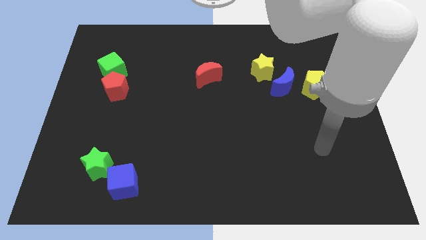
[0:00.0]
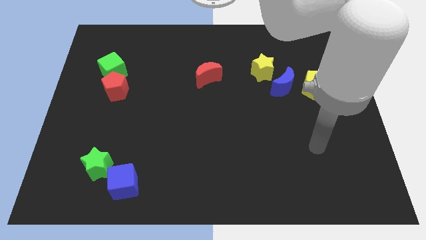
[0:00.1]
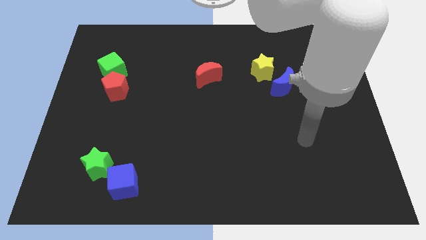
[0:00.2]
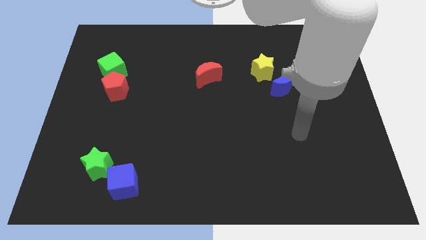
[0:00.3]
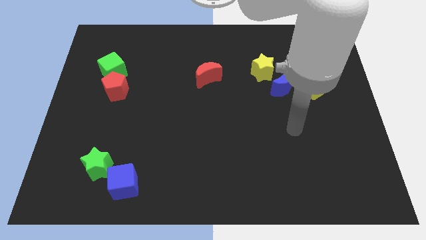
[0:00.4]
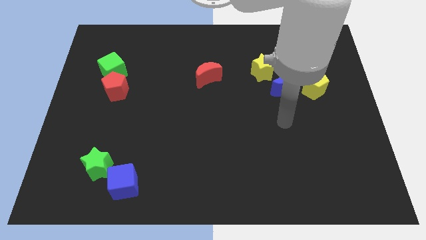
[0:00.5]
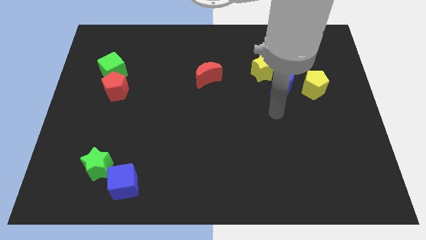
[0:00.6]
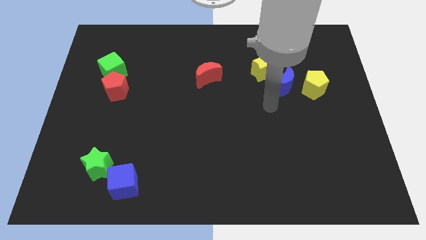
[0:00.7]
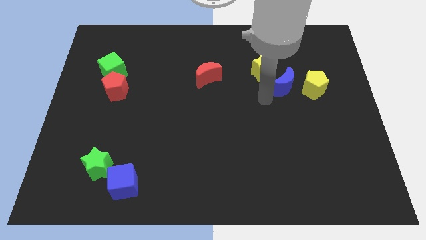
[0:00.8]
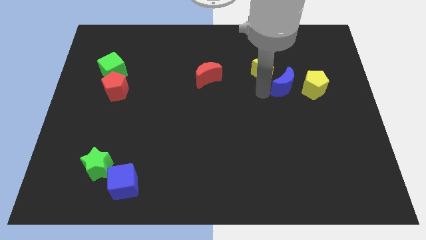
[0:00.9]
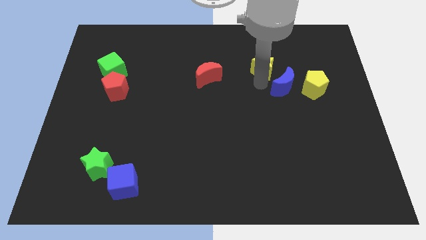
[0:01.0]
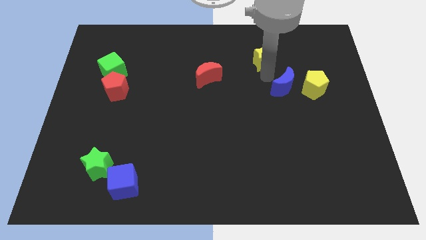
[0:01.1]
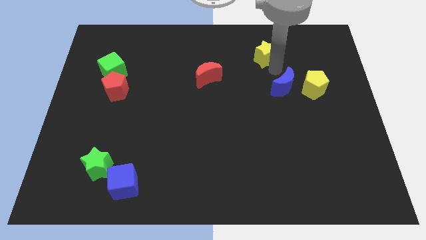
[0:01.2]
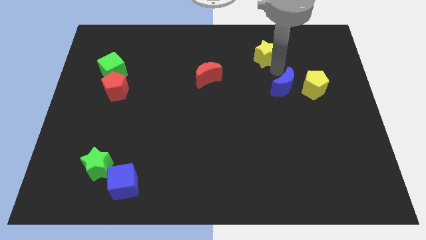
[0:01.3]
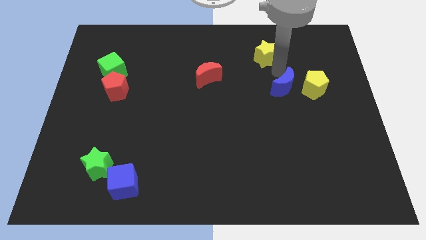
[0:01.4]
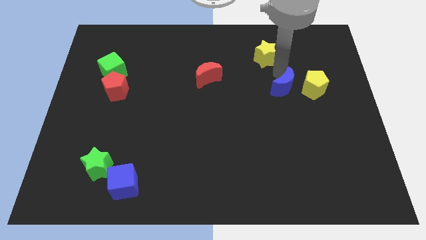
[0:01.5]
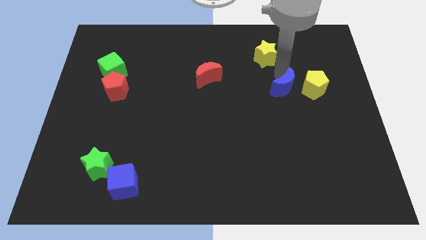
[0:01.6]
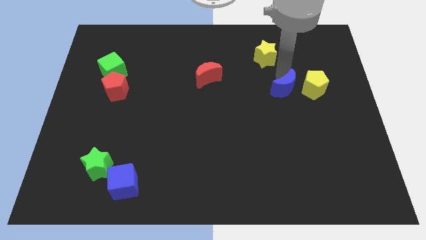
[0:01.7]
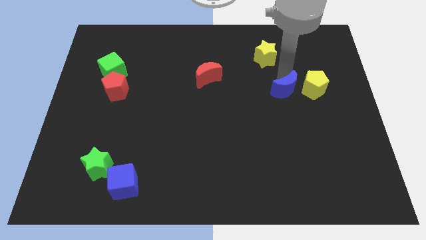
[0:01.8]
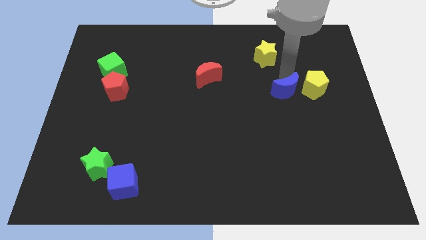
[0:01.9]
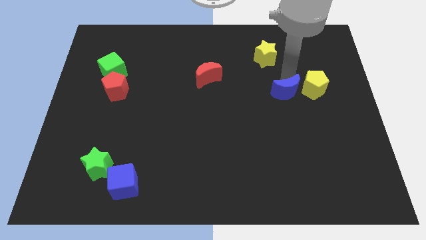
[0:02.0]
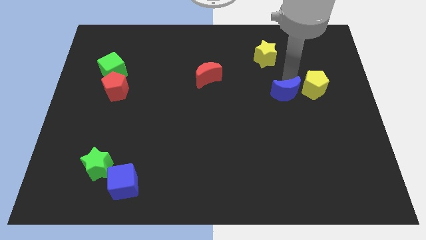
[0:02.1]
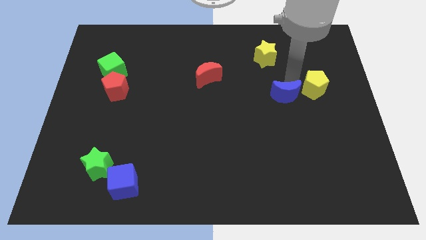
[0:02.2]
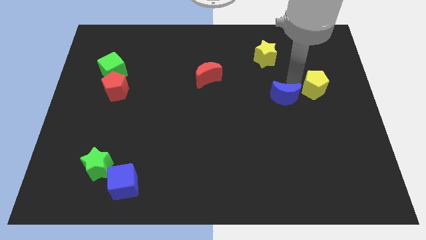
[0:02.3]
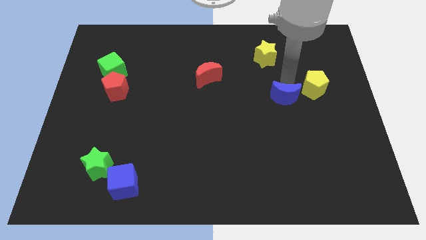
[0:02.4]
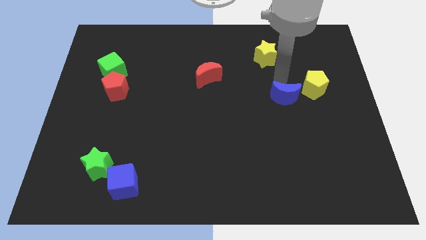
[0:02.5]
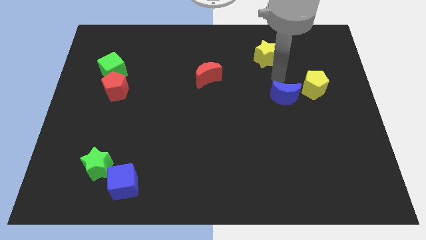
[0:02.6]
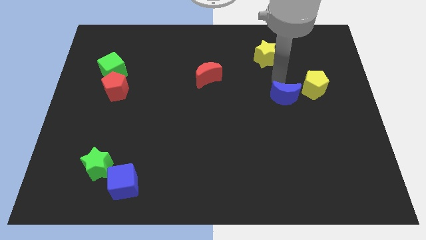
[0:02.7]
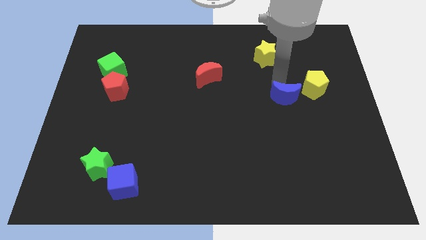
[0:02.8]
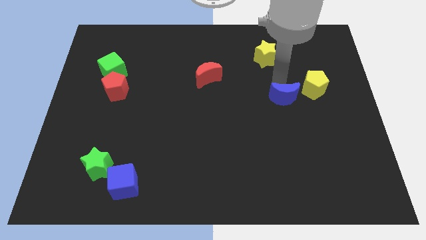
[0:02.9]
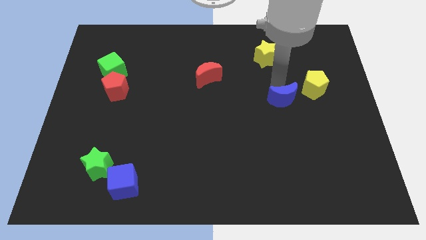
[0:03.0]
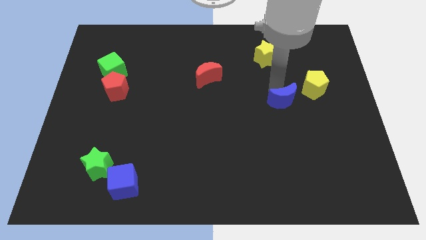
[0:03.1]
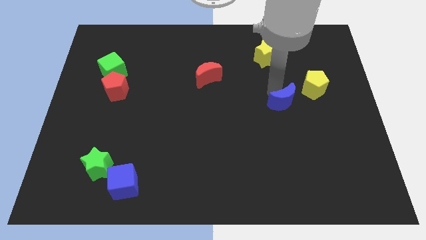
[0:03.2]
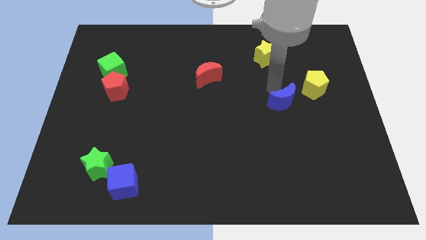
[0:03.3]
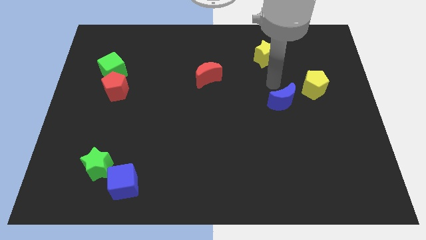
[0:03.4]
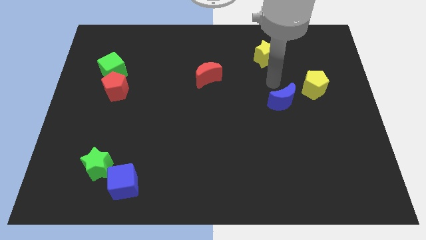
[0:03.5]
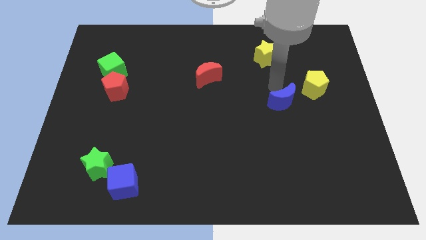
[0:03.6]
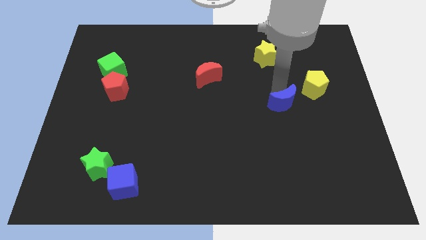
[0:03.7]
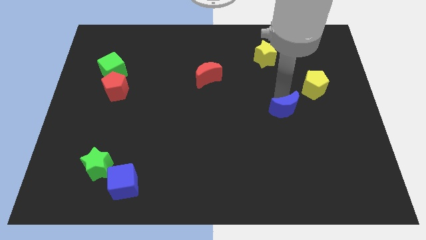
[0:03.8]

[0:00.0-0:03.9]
slightly move the blue moon downwards

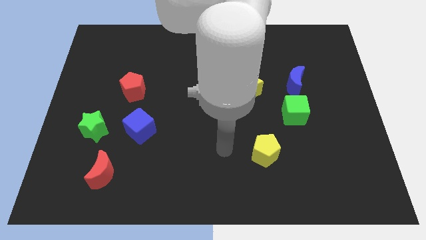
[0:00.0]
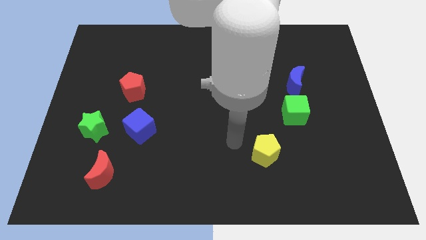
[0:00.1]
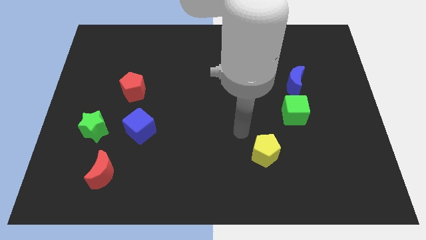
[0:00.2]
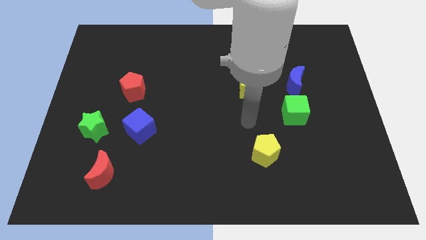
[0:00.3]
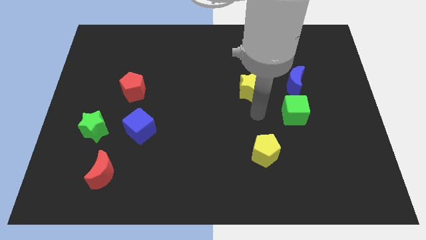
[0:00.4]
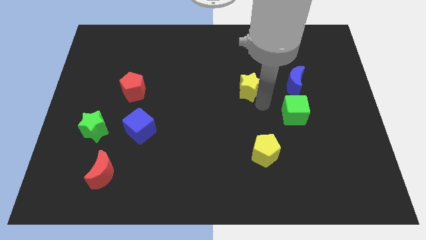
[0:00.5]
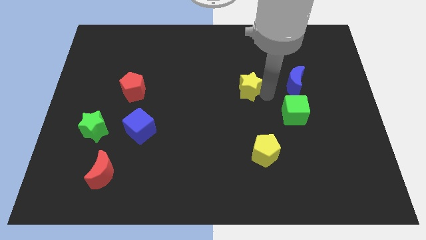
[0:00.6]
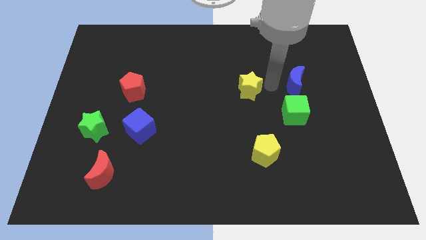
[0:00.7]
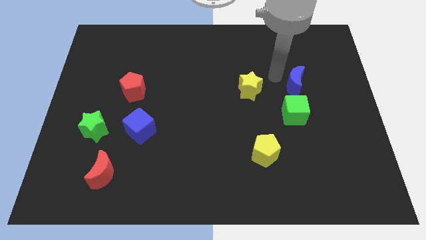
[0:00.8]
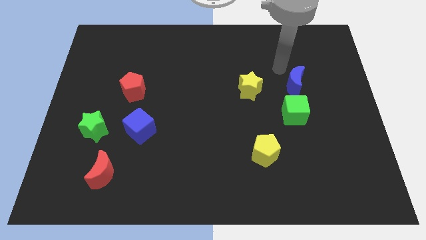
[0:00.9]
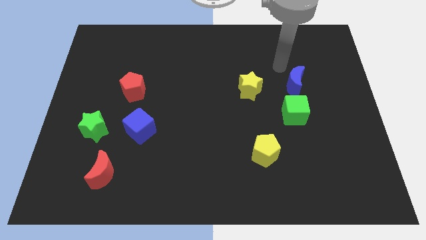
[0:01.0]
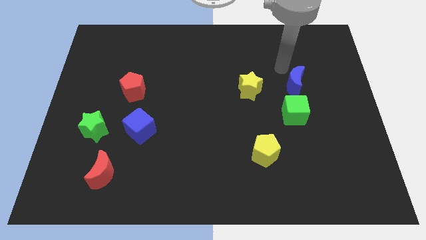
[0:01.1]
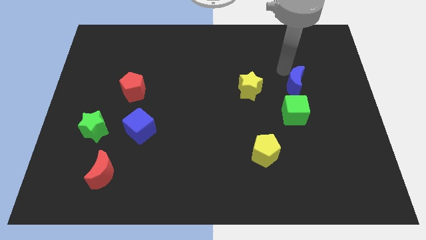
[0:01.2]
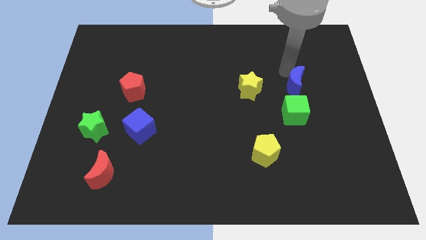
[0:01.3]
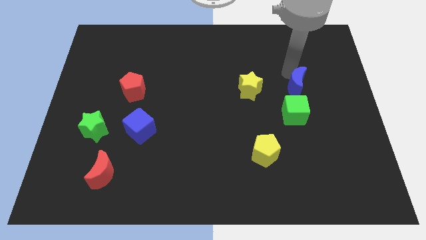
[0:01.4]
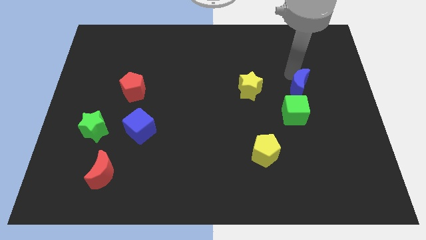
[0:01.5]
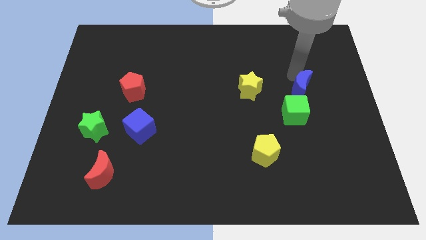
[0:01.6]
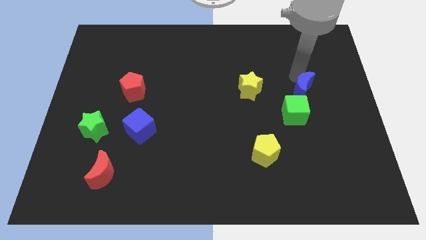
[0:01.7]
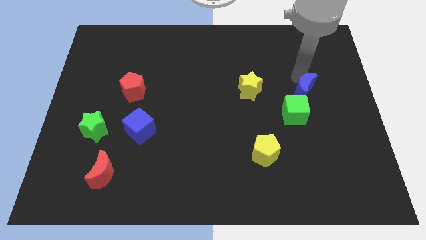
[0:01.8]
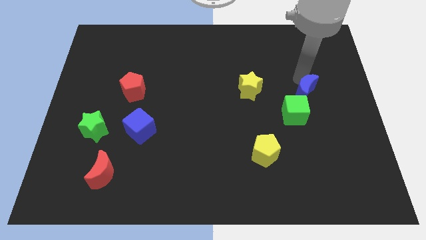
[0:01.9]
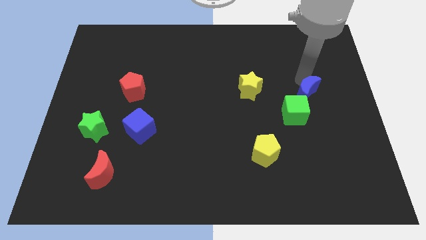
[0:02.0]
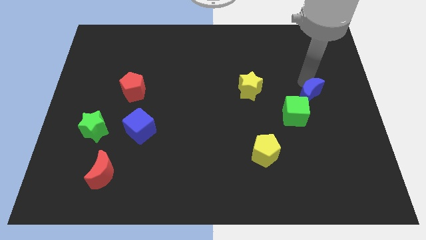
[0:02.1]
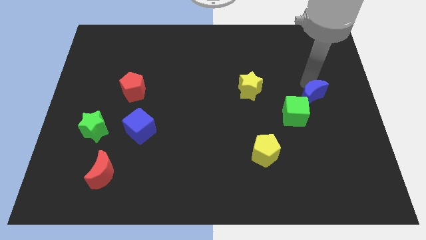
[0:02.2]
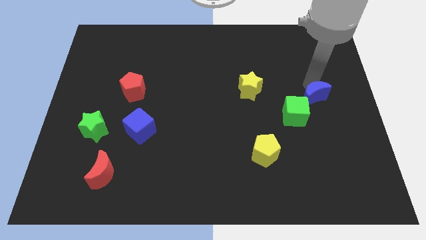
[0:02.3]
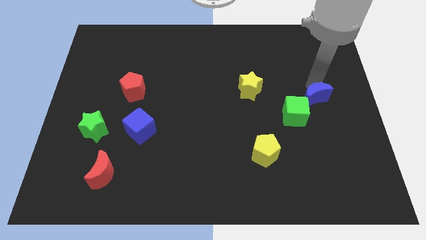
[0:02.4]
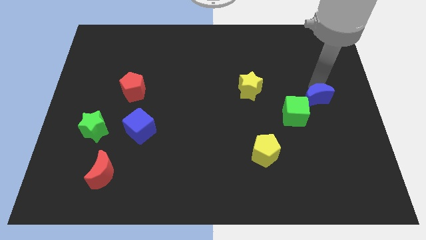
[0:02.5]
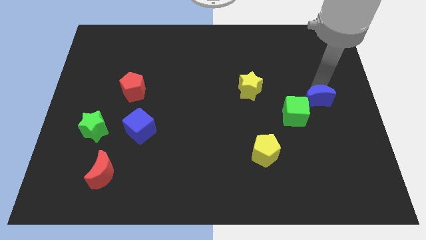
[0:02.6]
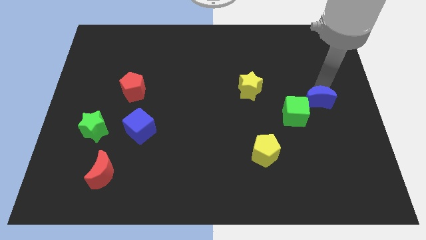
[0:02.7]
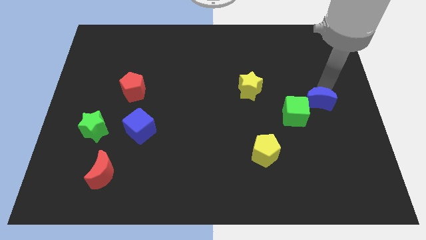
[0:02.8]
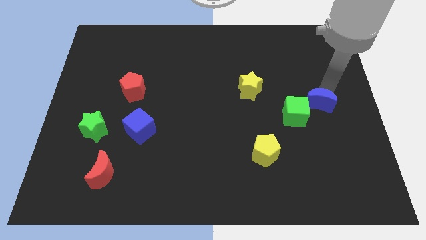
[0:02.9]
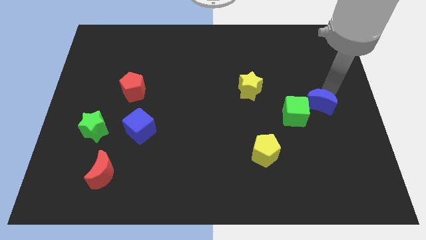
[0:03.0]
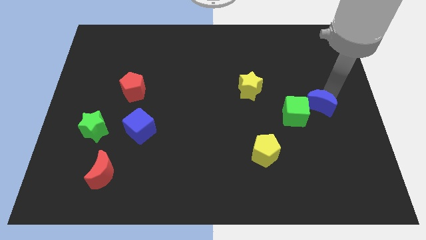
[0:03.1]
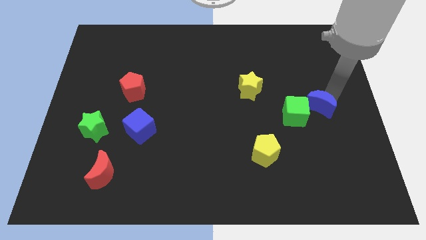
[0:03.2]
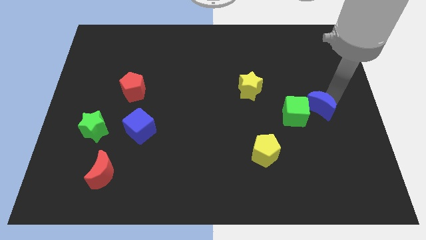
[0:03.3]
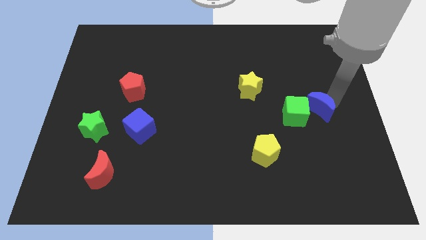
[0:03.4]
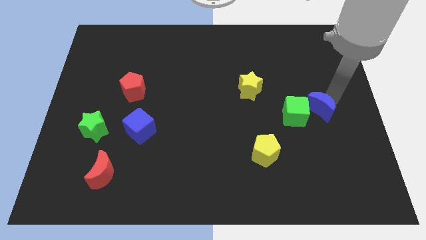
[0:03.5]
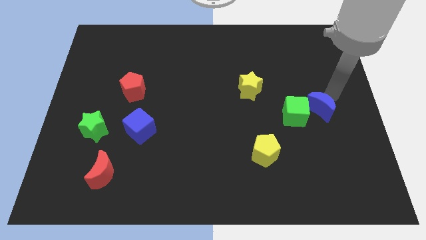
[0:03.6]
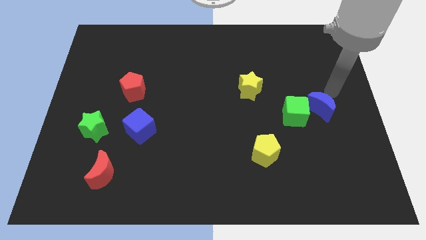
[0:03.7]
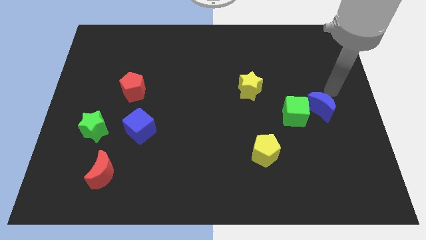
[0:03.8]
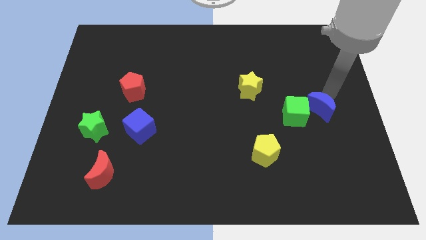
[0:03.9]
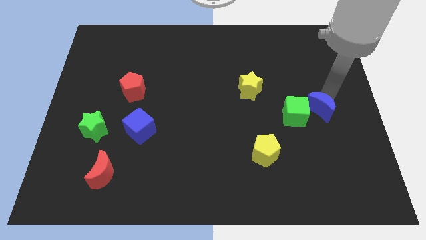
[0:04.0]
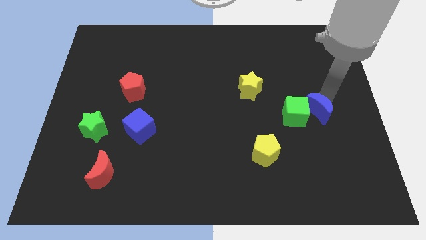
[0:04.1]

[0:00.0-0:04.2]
move the blue moon downwards a bit
